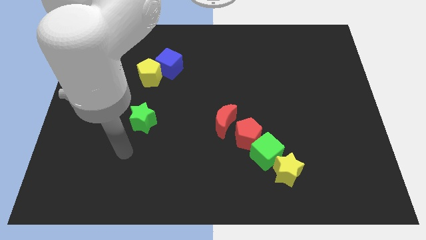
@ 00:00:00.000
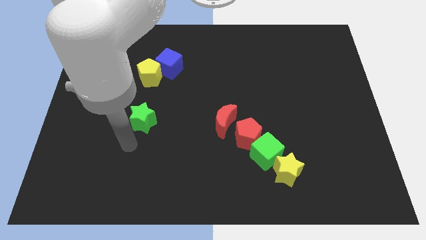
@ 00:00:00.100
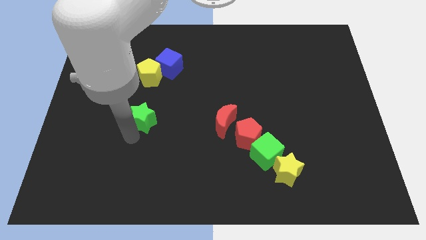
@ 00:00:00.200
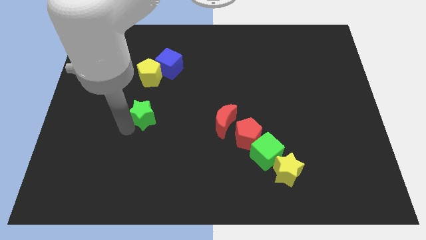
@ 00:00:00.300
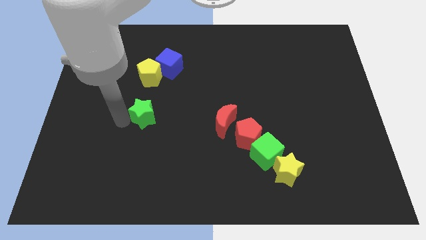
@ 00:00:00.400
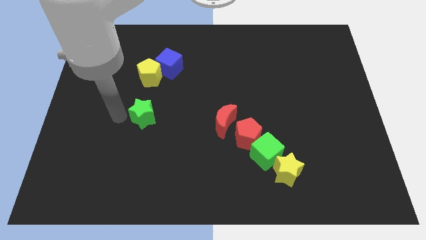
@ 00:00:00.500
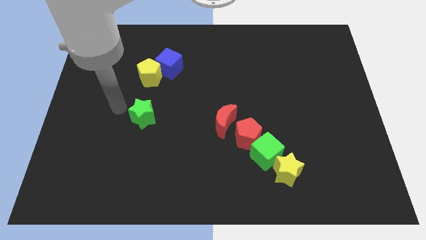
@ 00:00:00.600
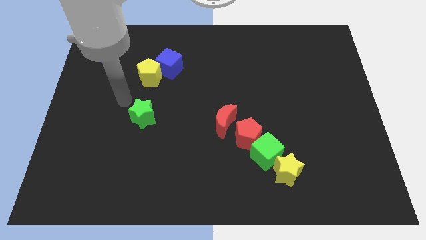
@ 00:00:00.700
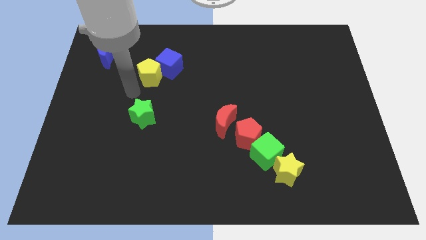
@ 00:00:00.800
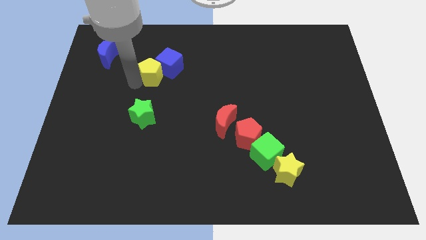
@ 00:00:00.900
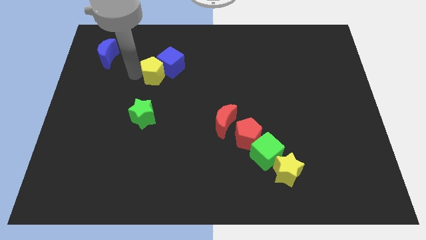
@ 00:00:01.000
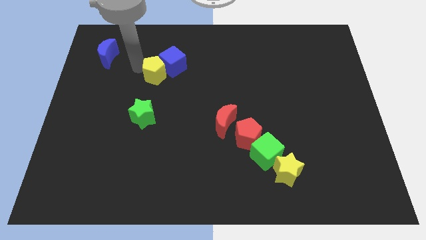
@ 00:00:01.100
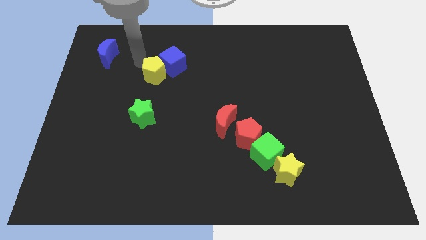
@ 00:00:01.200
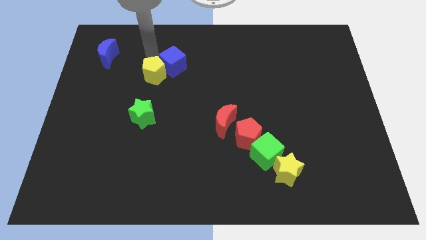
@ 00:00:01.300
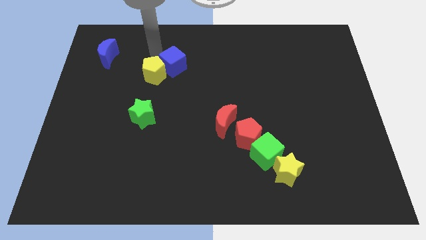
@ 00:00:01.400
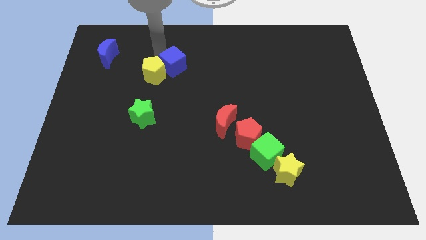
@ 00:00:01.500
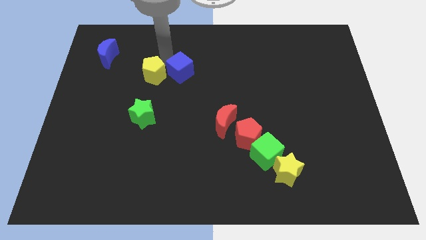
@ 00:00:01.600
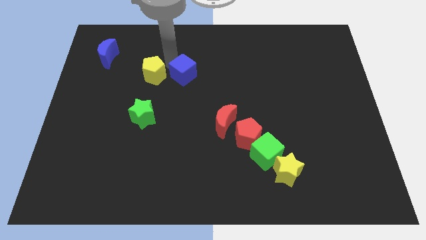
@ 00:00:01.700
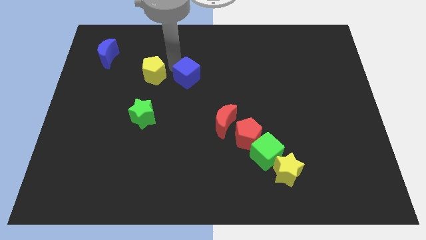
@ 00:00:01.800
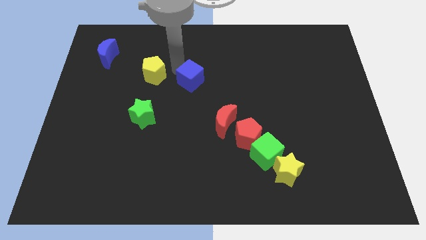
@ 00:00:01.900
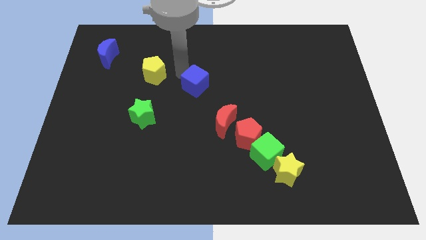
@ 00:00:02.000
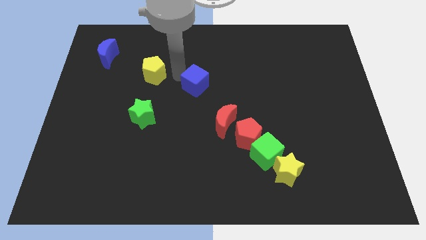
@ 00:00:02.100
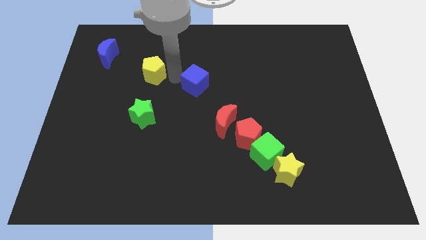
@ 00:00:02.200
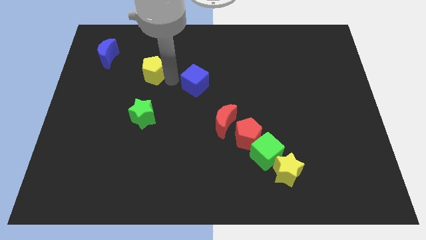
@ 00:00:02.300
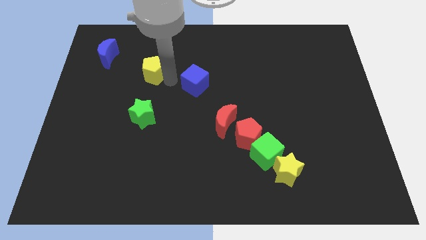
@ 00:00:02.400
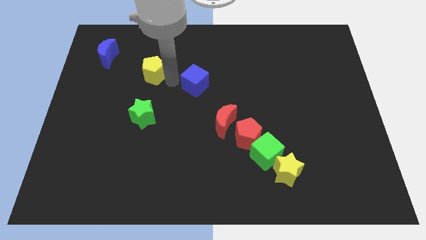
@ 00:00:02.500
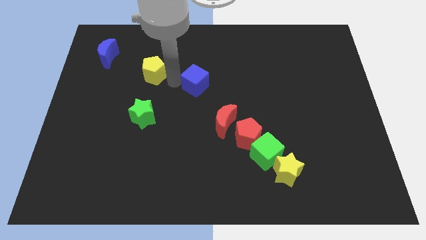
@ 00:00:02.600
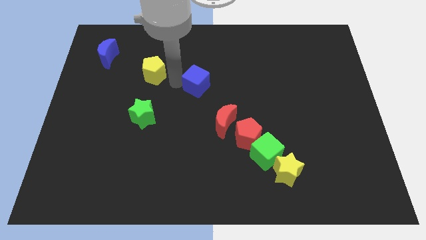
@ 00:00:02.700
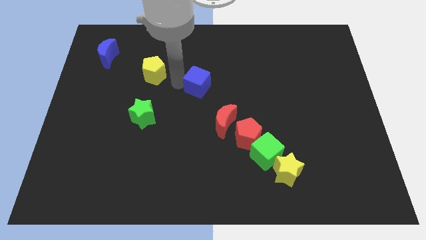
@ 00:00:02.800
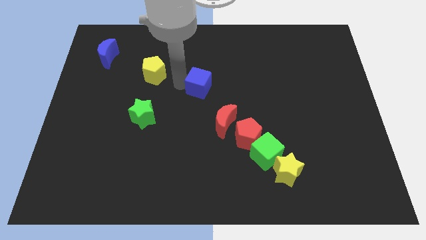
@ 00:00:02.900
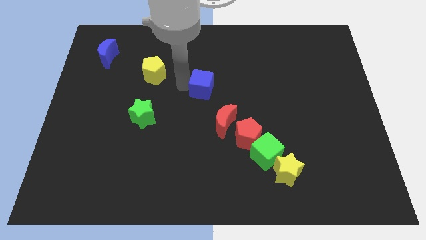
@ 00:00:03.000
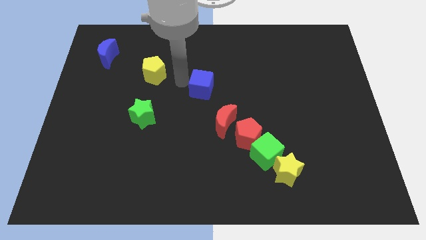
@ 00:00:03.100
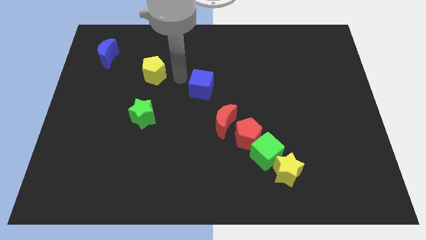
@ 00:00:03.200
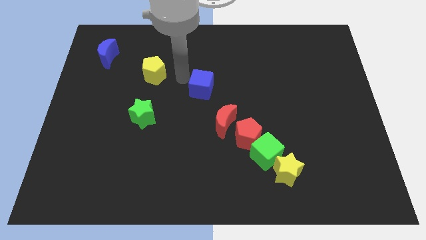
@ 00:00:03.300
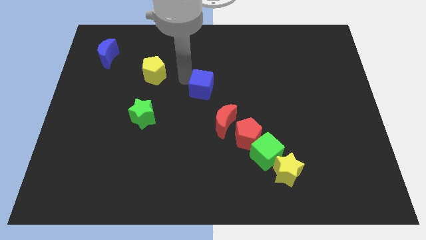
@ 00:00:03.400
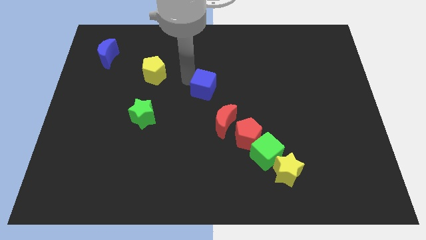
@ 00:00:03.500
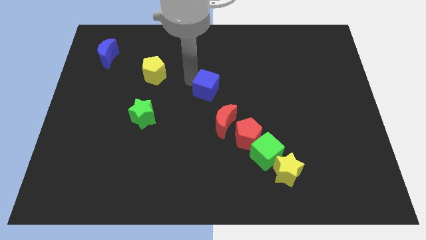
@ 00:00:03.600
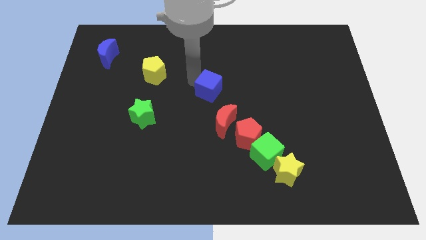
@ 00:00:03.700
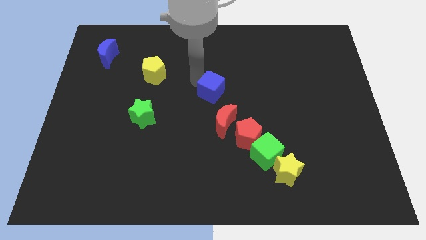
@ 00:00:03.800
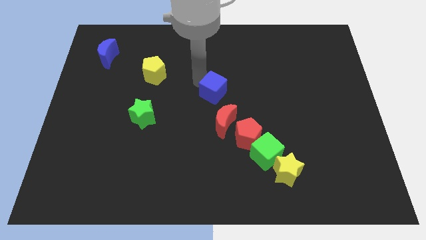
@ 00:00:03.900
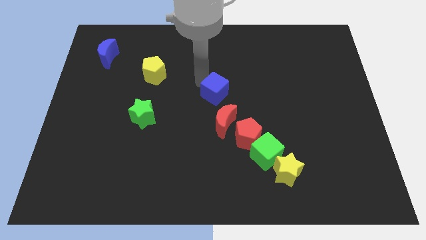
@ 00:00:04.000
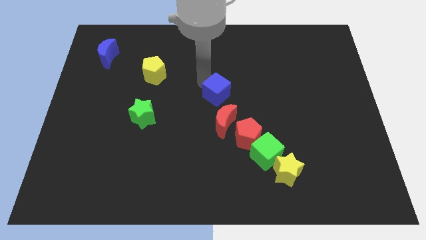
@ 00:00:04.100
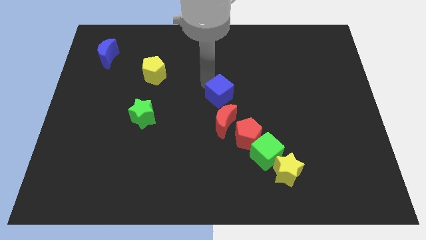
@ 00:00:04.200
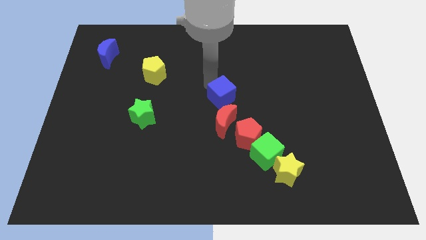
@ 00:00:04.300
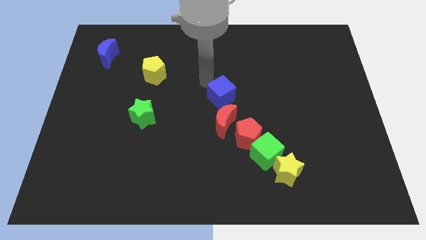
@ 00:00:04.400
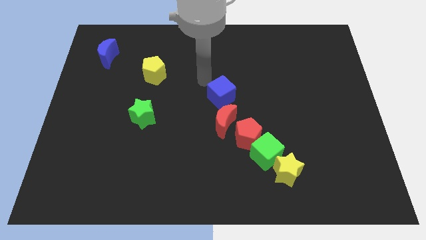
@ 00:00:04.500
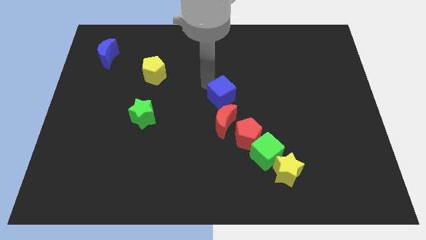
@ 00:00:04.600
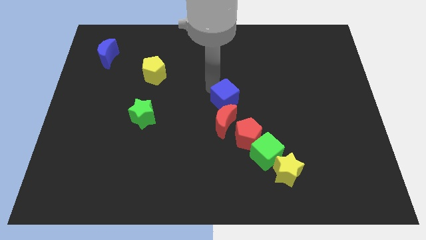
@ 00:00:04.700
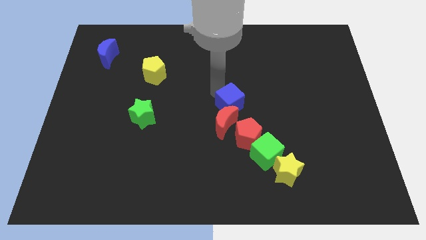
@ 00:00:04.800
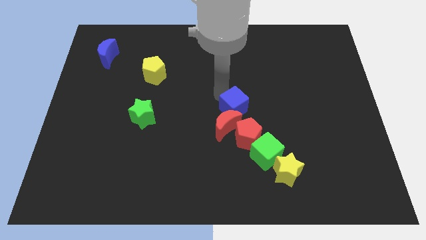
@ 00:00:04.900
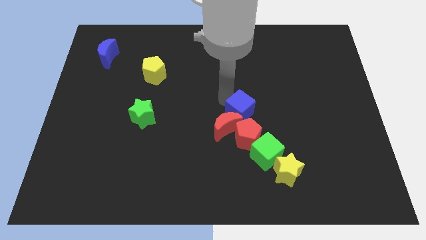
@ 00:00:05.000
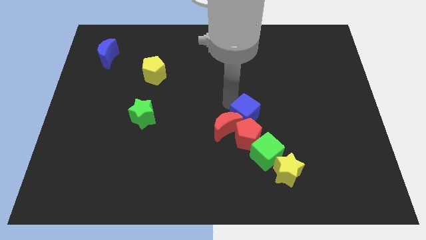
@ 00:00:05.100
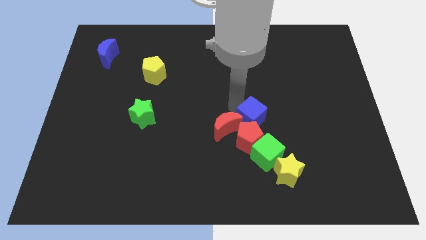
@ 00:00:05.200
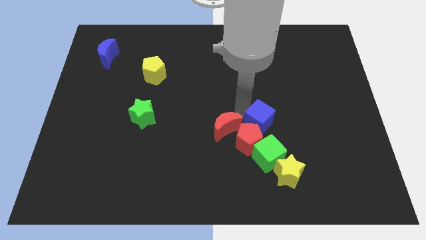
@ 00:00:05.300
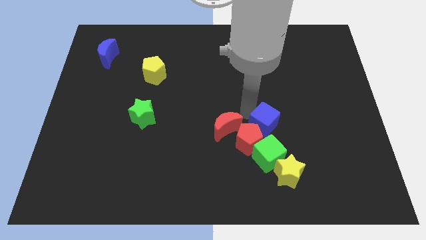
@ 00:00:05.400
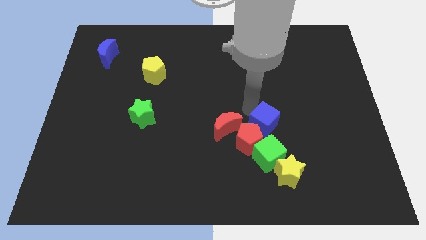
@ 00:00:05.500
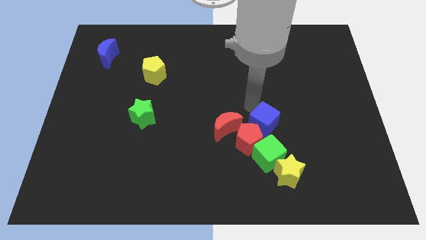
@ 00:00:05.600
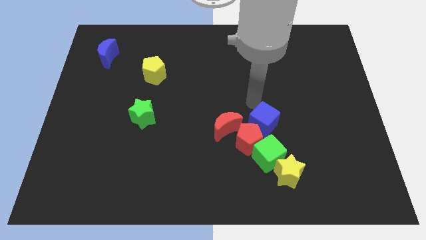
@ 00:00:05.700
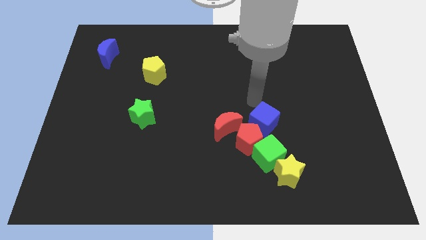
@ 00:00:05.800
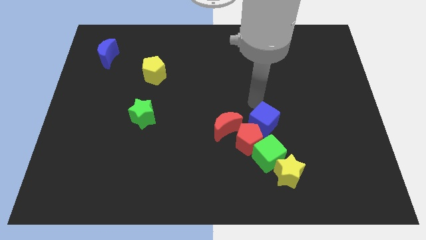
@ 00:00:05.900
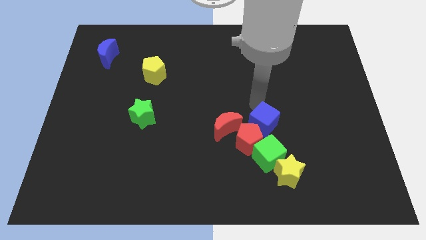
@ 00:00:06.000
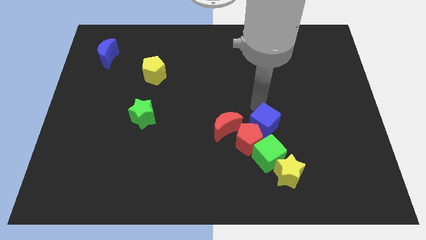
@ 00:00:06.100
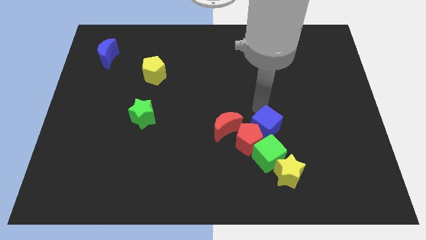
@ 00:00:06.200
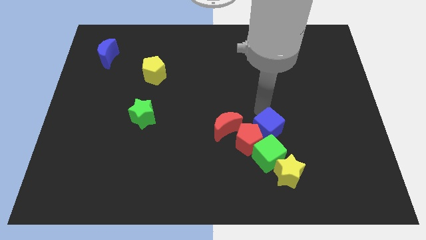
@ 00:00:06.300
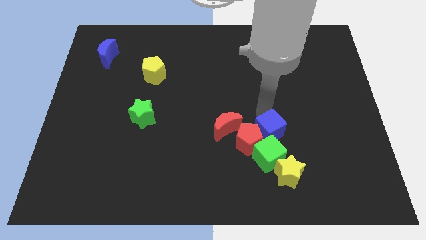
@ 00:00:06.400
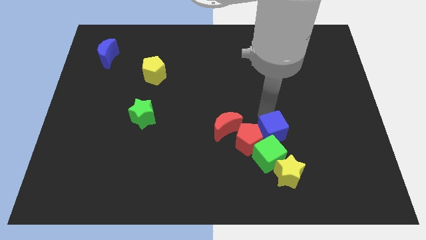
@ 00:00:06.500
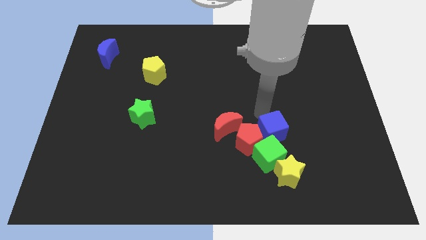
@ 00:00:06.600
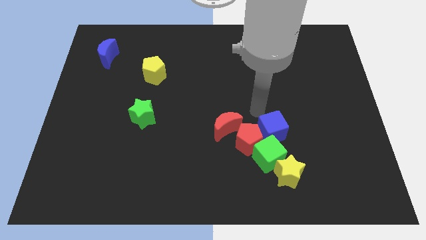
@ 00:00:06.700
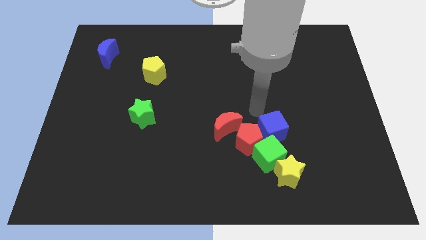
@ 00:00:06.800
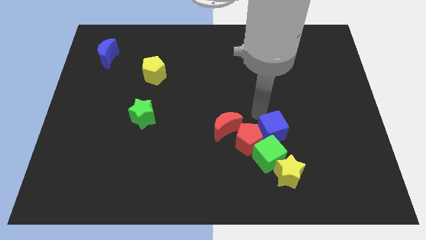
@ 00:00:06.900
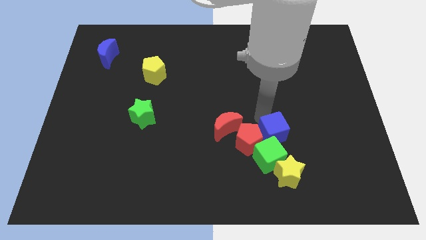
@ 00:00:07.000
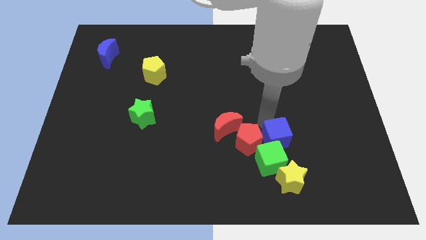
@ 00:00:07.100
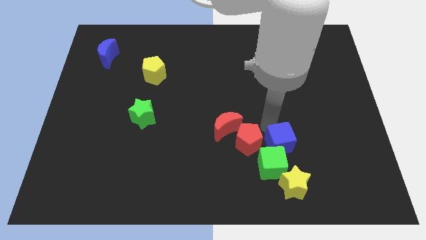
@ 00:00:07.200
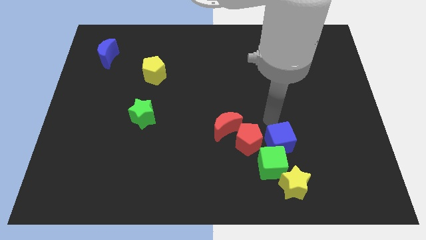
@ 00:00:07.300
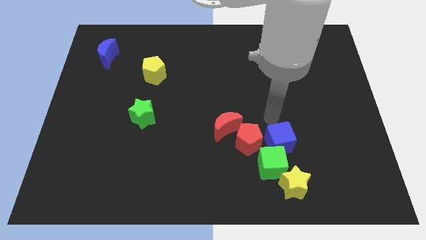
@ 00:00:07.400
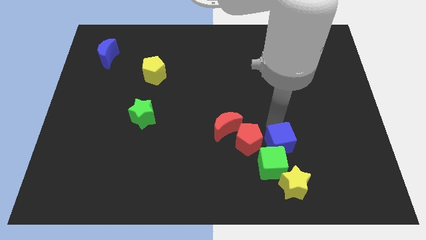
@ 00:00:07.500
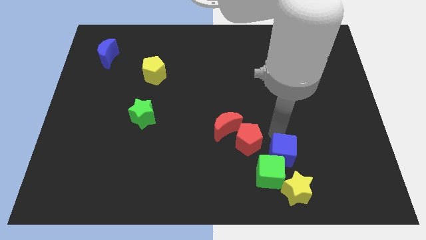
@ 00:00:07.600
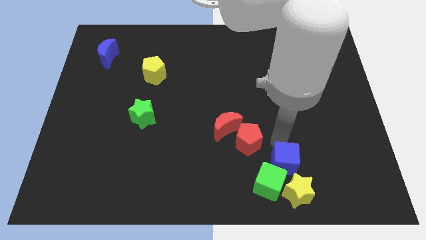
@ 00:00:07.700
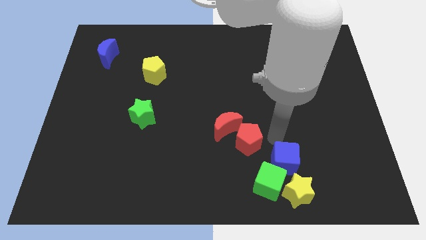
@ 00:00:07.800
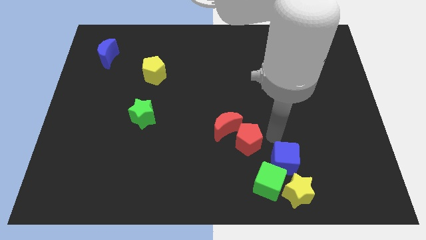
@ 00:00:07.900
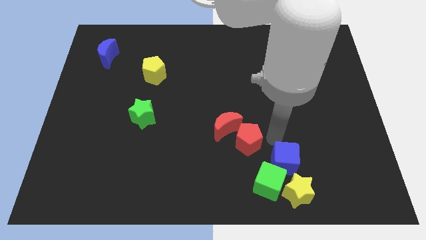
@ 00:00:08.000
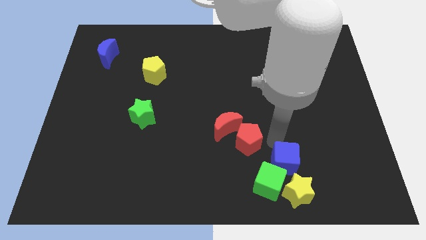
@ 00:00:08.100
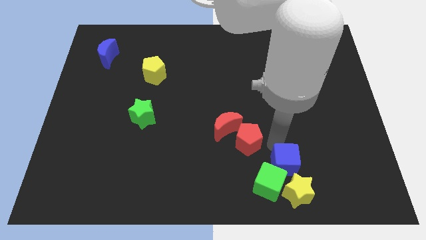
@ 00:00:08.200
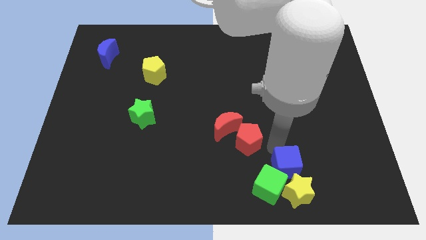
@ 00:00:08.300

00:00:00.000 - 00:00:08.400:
put the blue cube next to the yellow star
